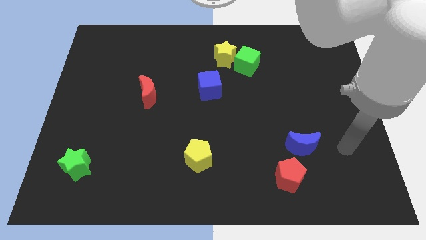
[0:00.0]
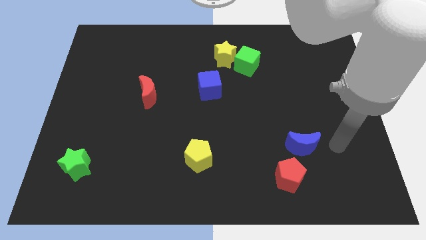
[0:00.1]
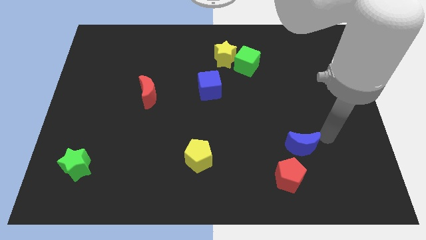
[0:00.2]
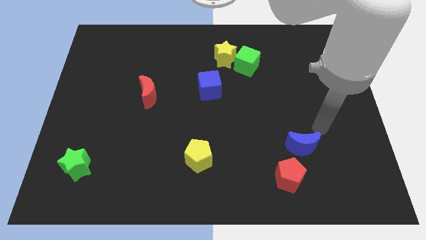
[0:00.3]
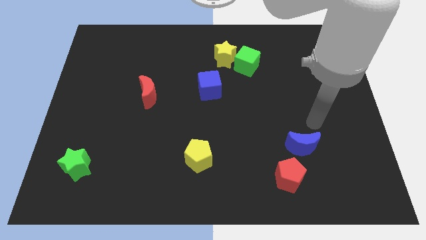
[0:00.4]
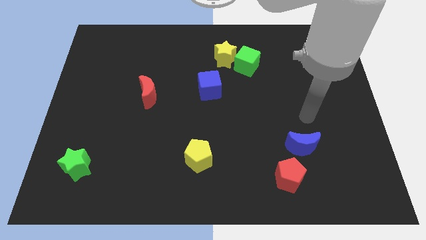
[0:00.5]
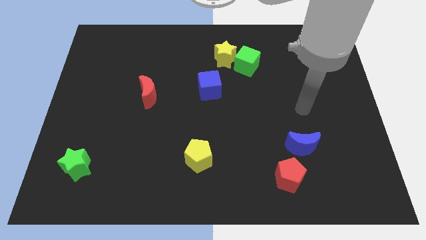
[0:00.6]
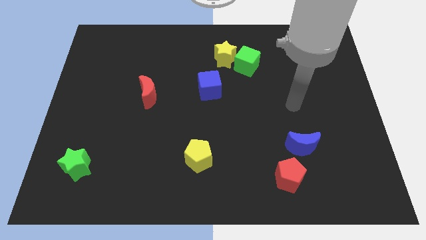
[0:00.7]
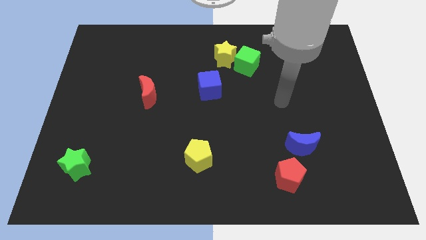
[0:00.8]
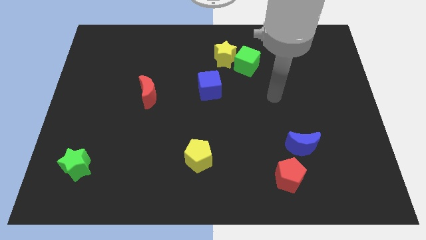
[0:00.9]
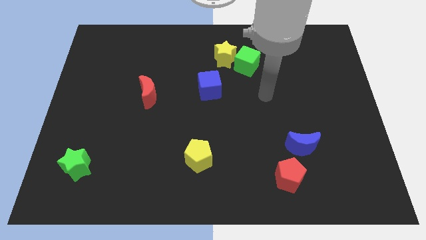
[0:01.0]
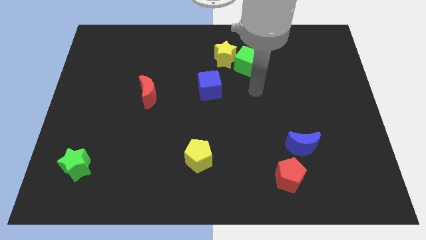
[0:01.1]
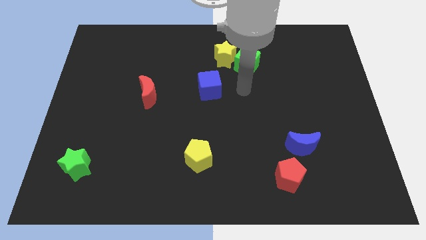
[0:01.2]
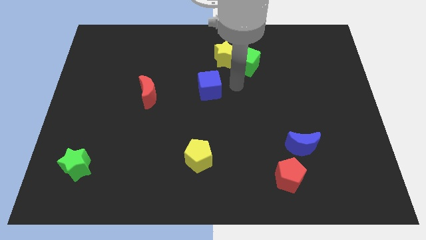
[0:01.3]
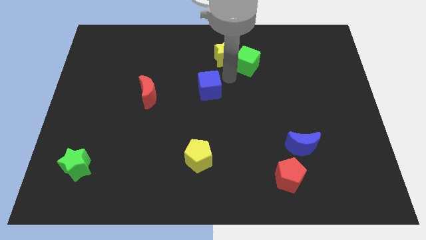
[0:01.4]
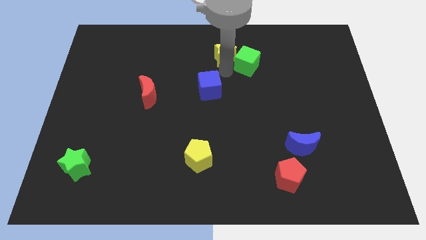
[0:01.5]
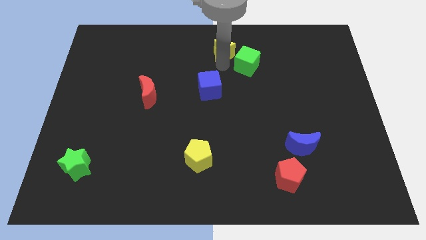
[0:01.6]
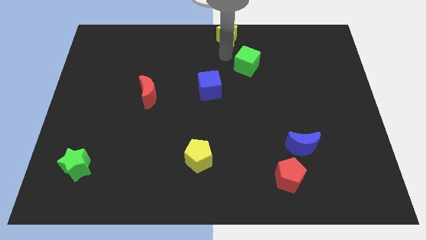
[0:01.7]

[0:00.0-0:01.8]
move the green cube away from the yellow star

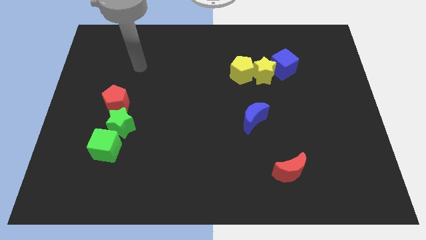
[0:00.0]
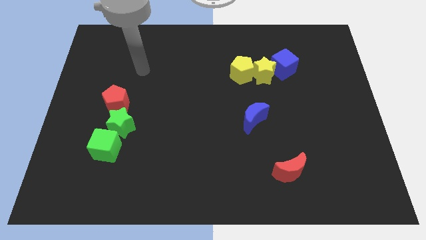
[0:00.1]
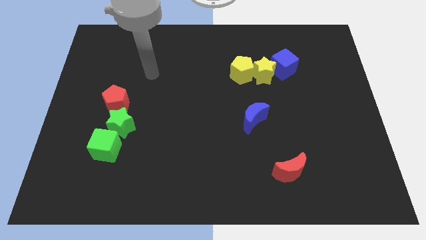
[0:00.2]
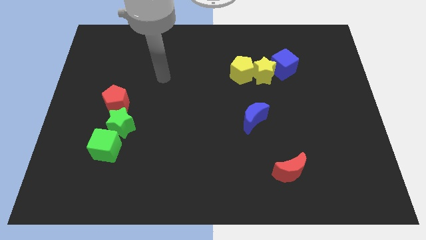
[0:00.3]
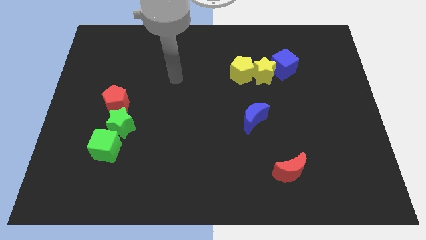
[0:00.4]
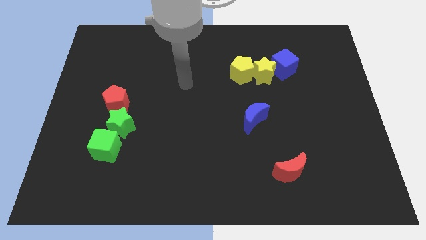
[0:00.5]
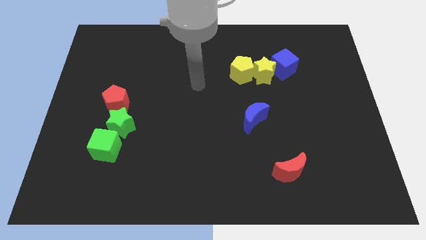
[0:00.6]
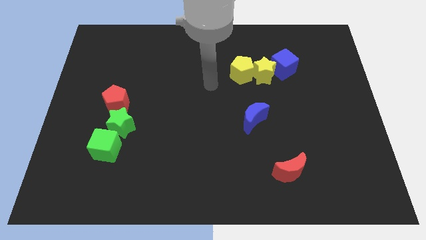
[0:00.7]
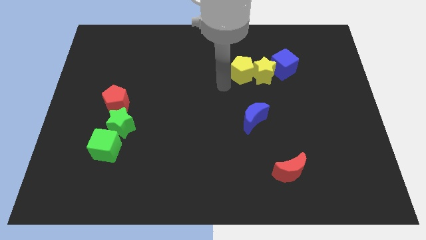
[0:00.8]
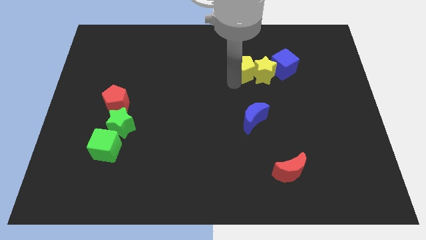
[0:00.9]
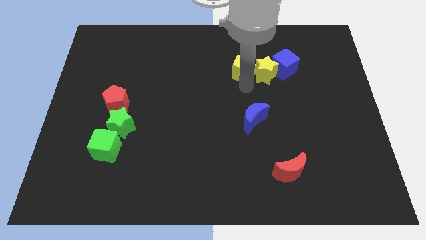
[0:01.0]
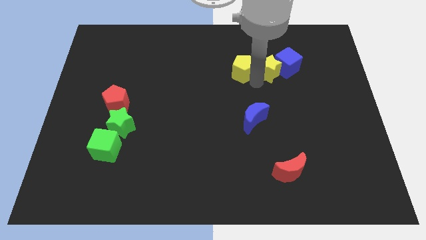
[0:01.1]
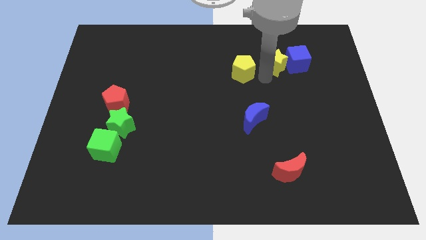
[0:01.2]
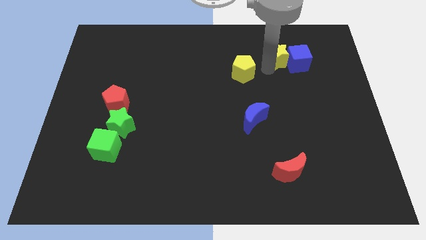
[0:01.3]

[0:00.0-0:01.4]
separate the yellow pentagon from the yellow star

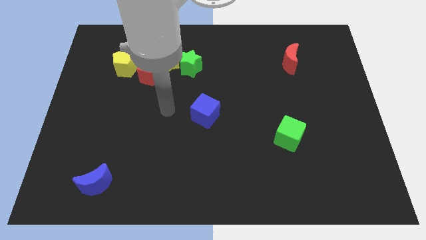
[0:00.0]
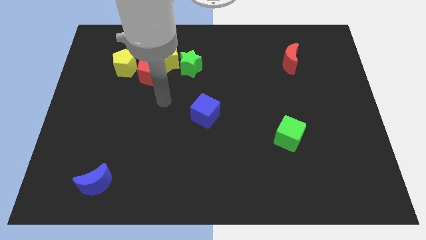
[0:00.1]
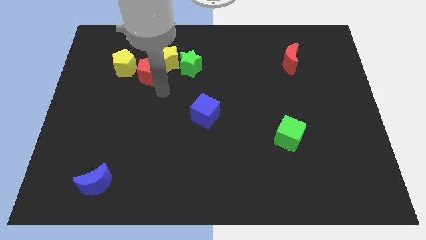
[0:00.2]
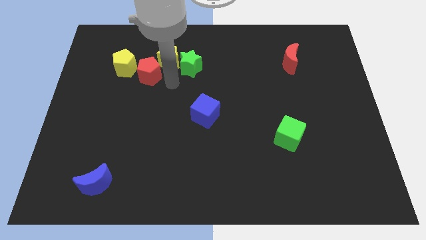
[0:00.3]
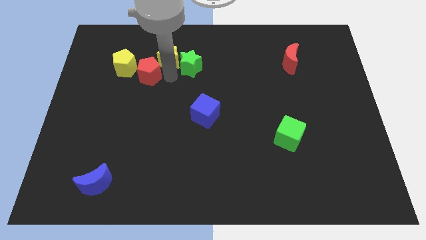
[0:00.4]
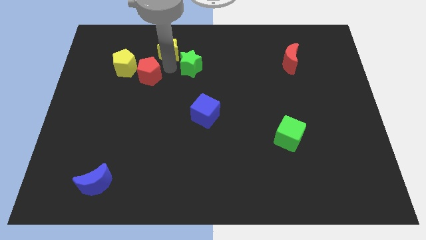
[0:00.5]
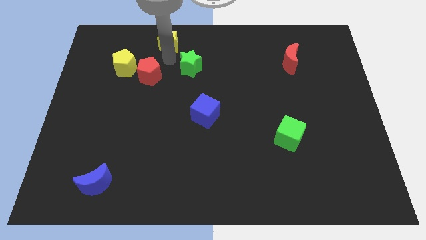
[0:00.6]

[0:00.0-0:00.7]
separate the green star from the yellow star

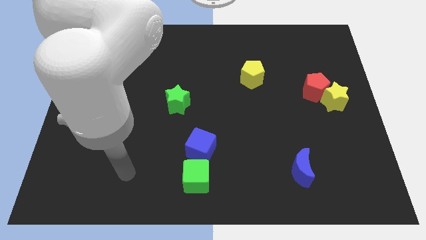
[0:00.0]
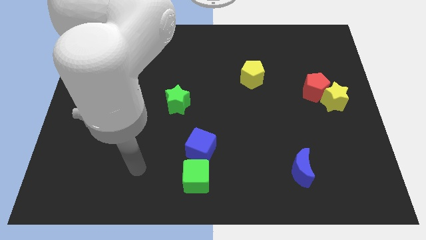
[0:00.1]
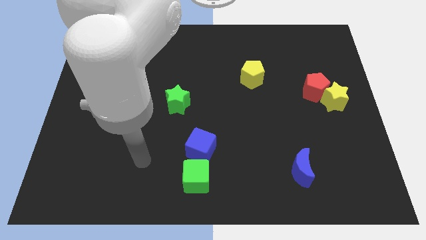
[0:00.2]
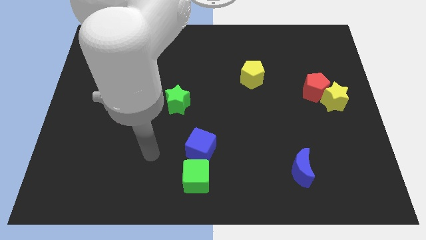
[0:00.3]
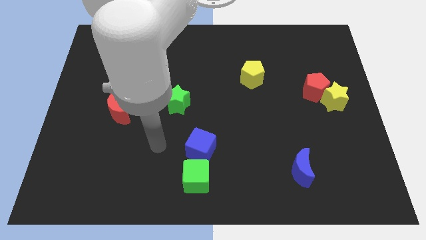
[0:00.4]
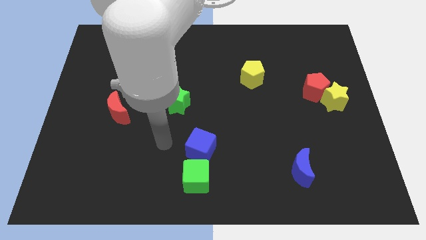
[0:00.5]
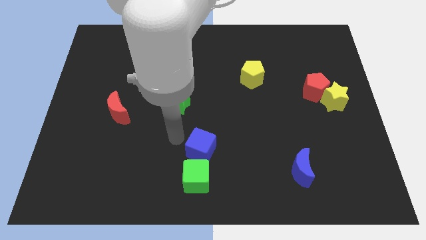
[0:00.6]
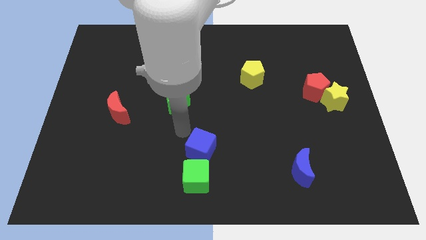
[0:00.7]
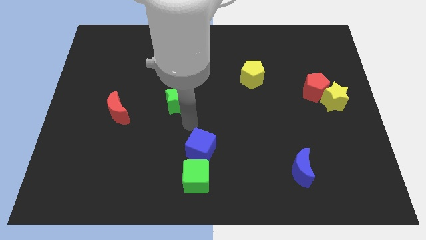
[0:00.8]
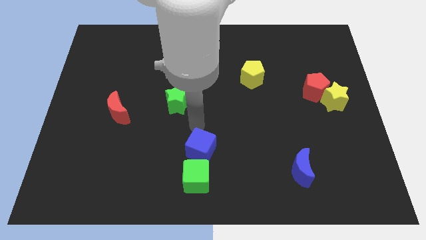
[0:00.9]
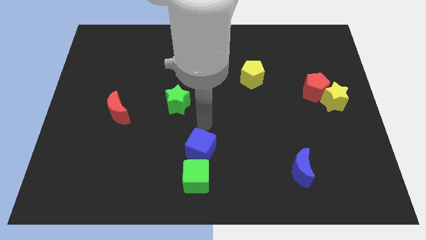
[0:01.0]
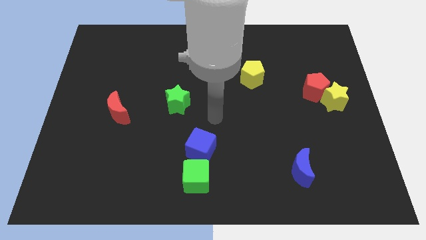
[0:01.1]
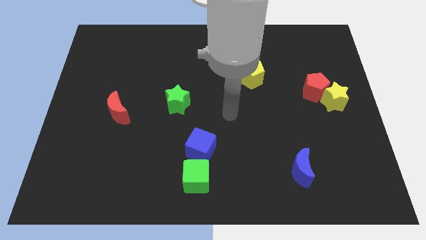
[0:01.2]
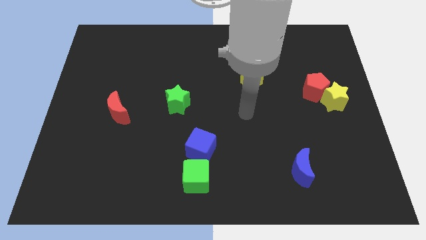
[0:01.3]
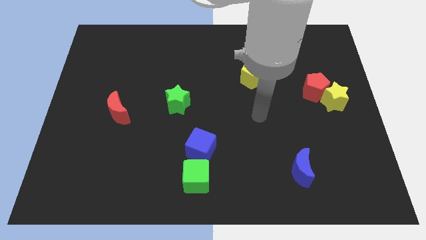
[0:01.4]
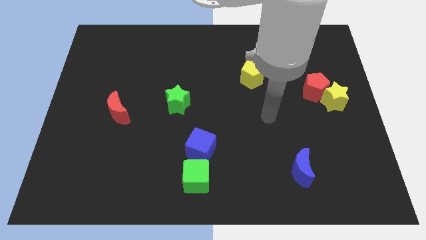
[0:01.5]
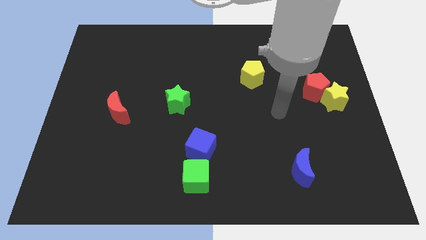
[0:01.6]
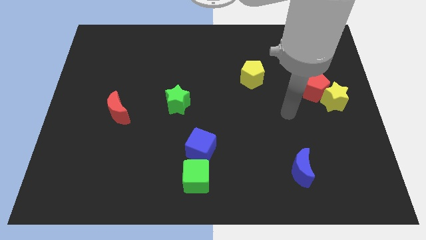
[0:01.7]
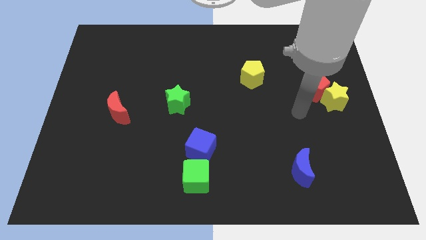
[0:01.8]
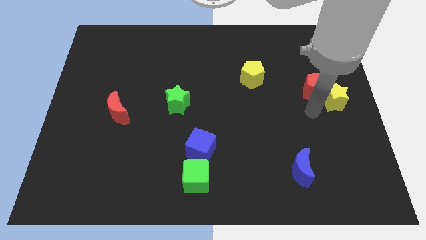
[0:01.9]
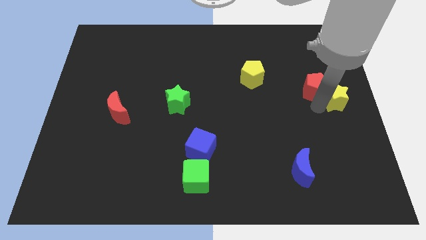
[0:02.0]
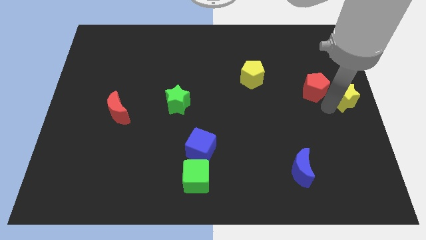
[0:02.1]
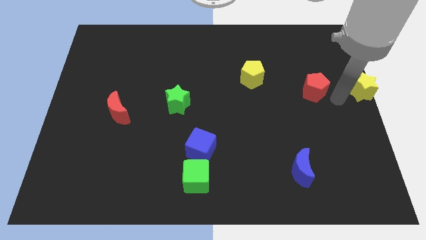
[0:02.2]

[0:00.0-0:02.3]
pull the red pentagon apart from the yellow star

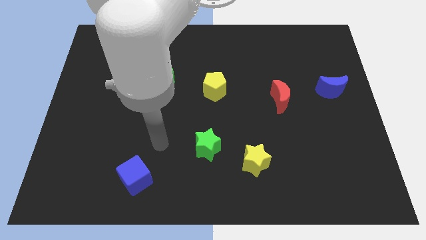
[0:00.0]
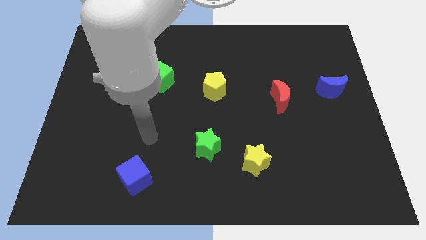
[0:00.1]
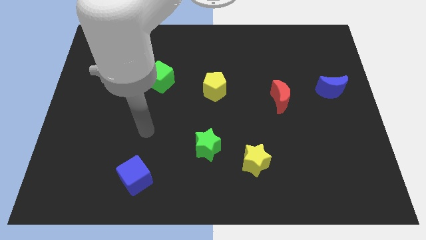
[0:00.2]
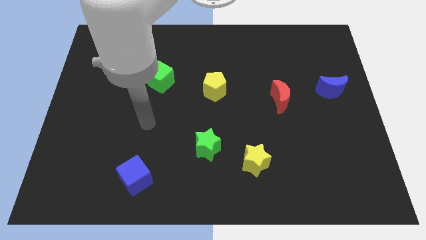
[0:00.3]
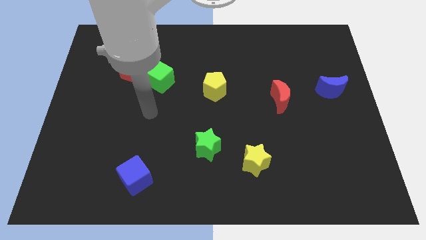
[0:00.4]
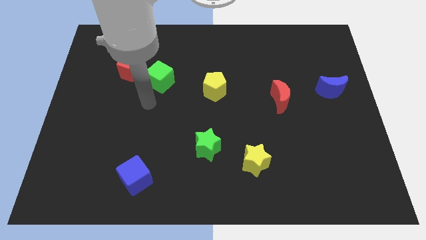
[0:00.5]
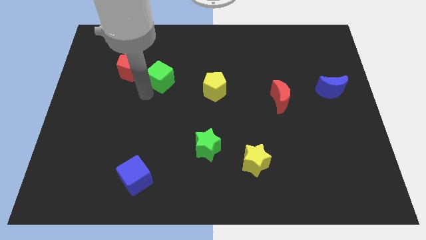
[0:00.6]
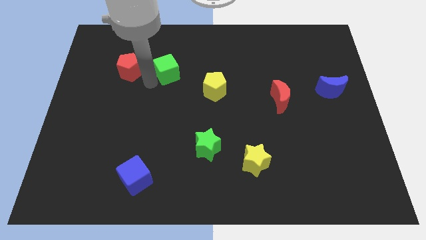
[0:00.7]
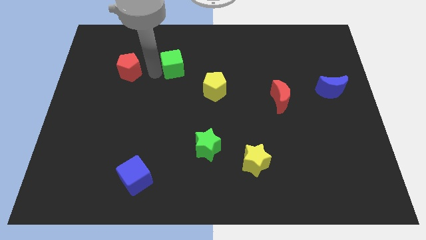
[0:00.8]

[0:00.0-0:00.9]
pull the red pentagon apart from the green cube

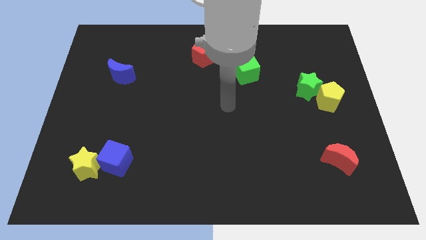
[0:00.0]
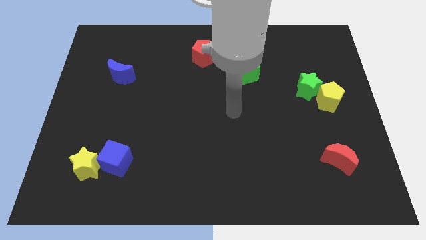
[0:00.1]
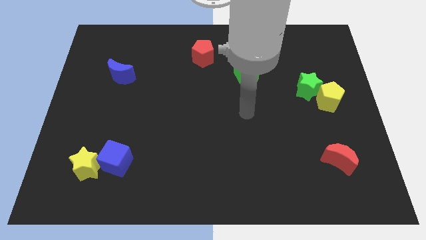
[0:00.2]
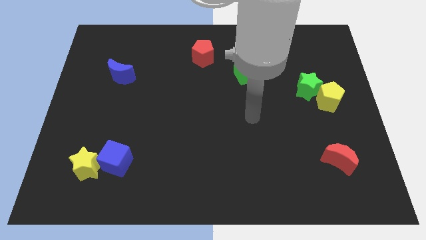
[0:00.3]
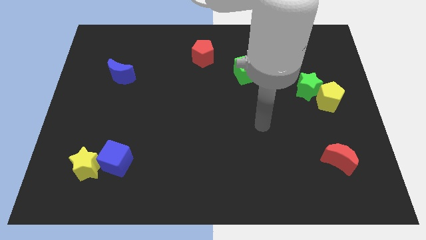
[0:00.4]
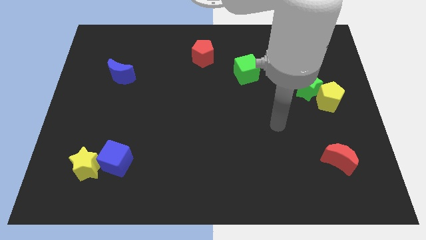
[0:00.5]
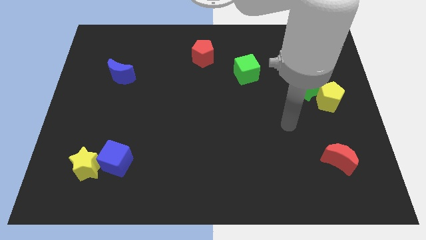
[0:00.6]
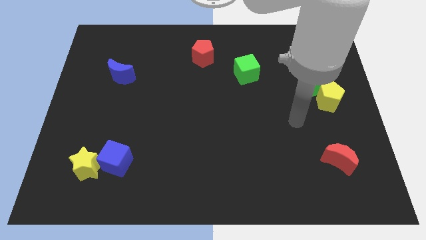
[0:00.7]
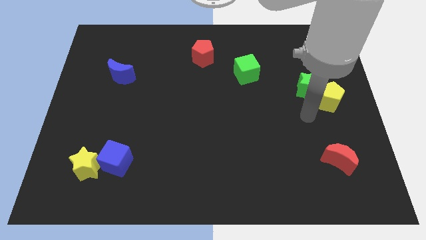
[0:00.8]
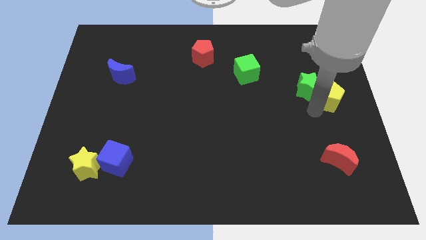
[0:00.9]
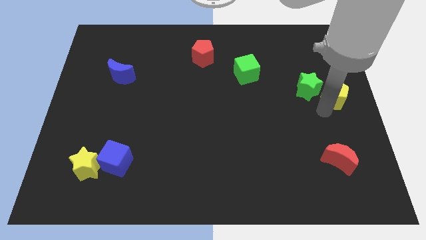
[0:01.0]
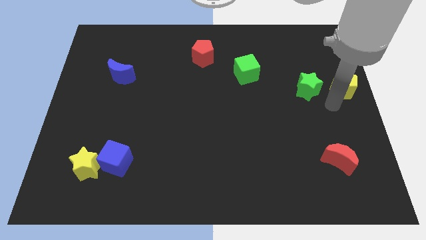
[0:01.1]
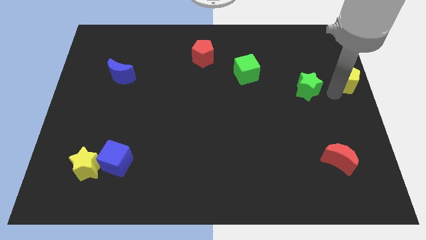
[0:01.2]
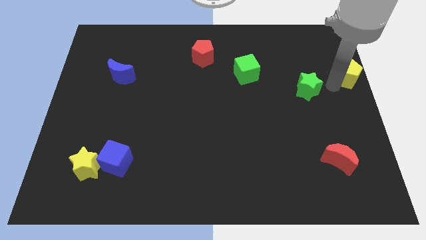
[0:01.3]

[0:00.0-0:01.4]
pull the green star apart from the yellow pentagon

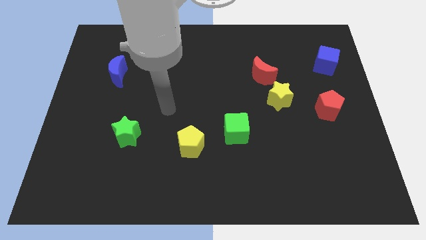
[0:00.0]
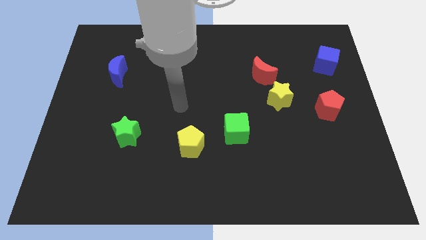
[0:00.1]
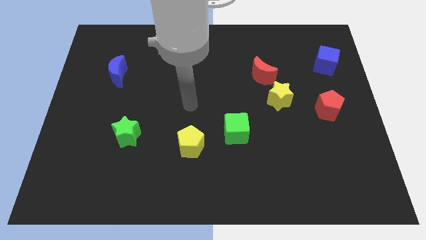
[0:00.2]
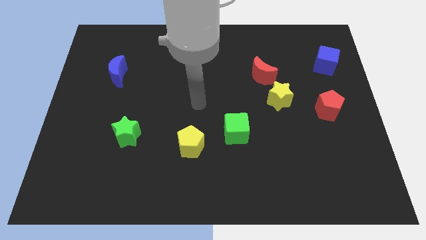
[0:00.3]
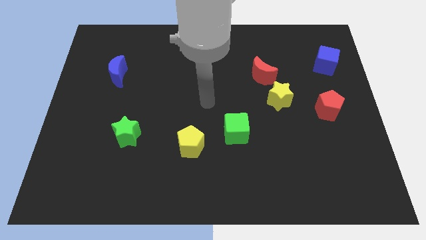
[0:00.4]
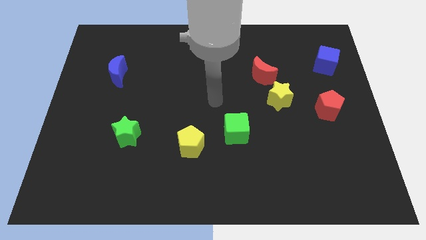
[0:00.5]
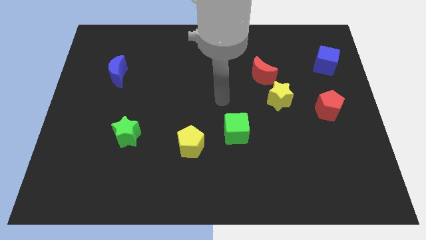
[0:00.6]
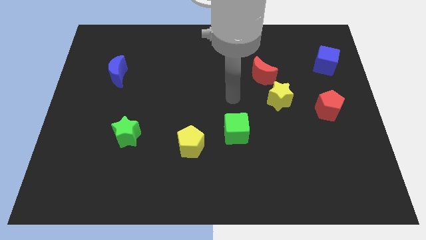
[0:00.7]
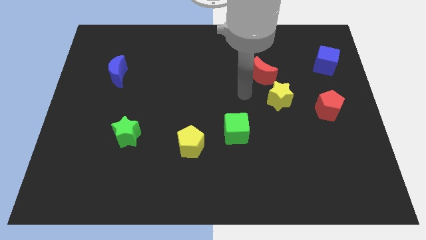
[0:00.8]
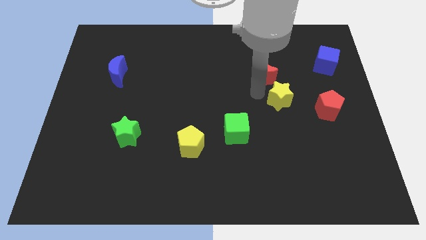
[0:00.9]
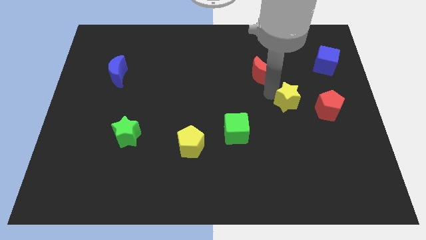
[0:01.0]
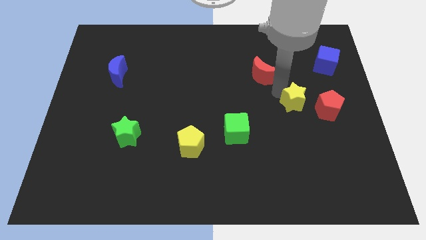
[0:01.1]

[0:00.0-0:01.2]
pull the red moon apart from the yellow star
